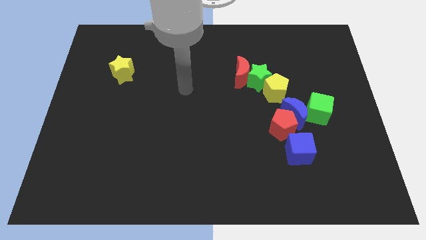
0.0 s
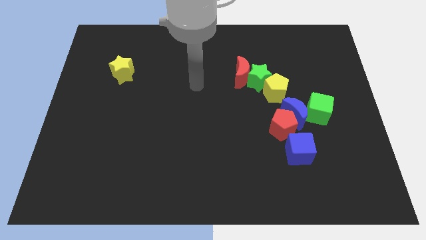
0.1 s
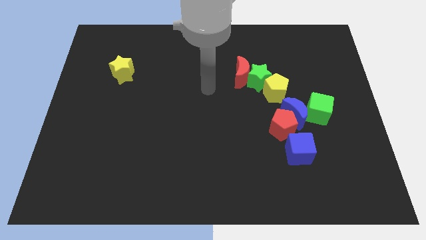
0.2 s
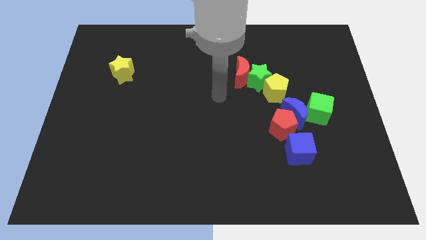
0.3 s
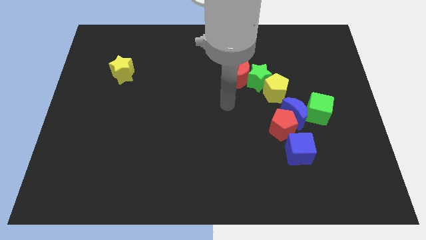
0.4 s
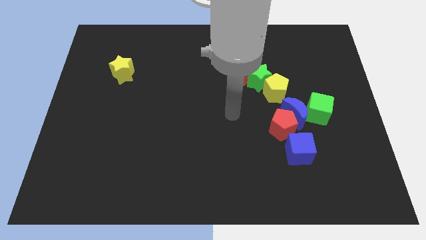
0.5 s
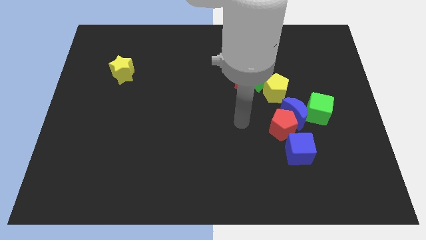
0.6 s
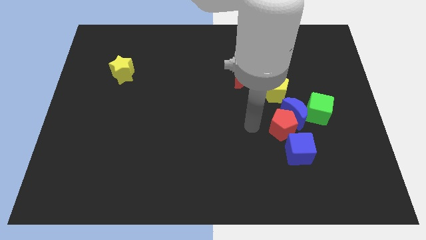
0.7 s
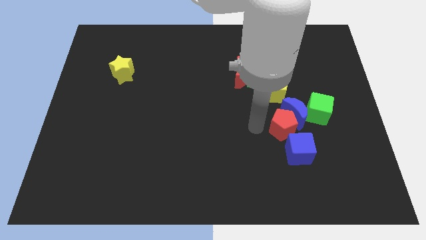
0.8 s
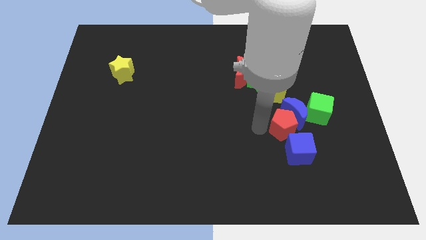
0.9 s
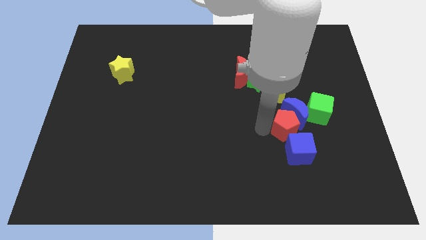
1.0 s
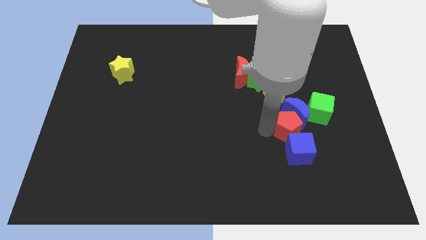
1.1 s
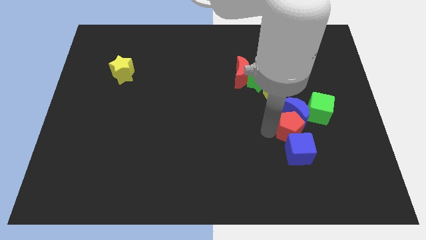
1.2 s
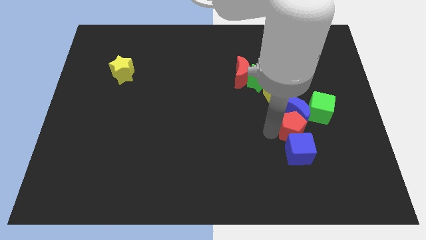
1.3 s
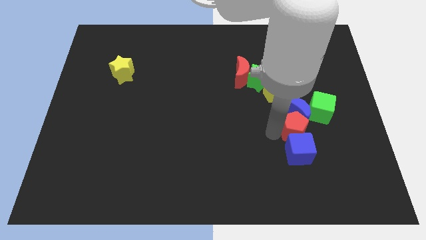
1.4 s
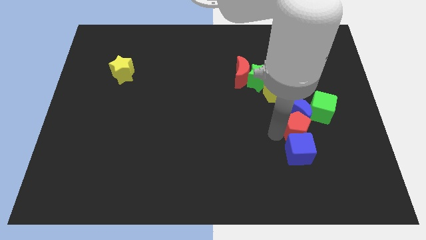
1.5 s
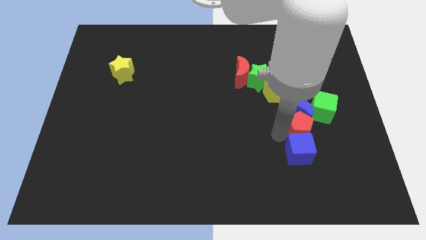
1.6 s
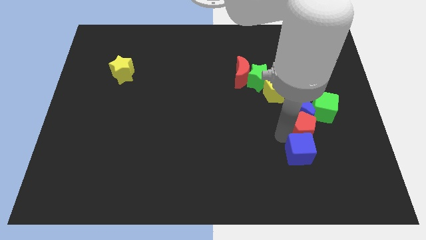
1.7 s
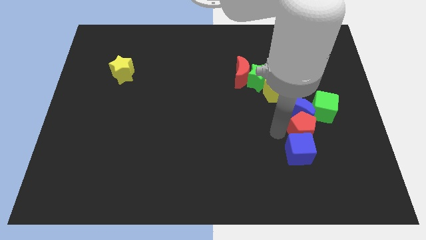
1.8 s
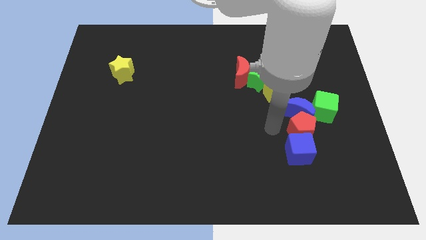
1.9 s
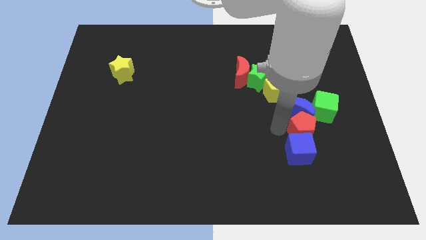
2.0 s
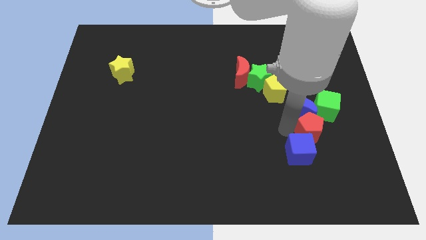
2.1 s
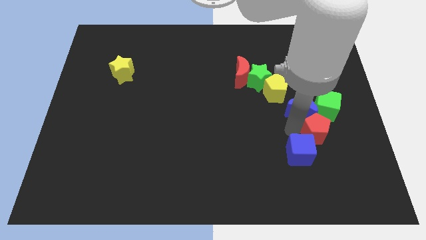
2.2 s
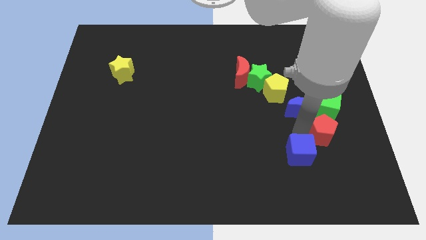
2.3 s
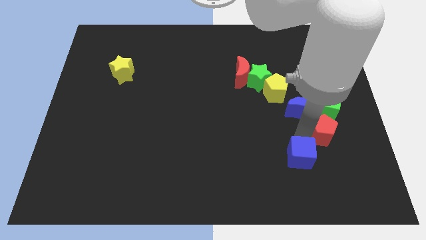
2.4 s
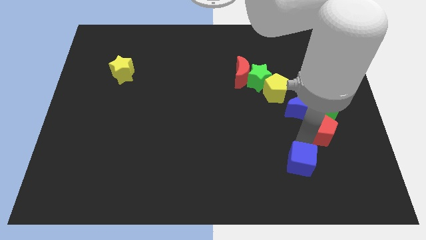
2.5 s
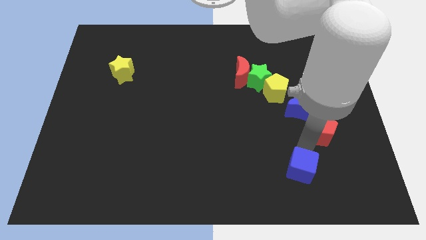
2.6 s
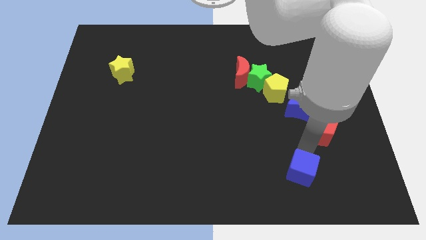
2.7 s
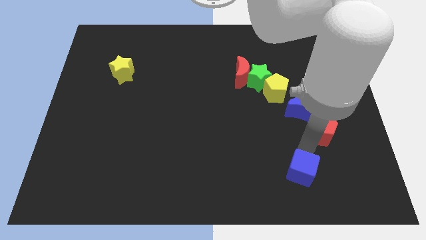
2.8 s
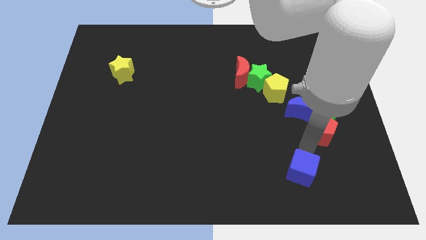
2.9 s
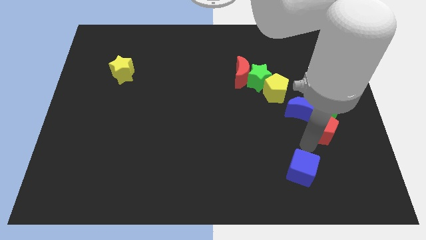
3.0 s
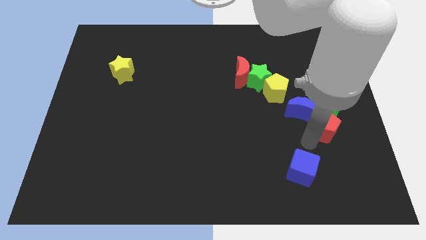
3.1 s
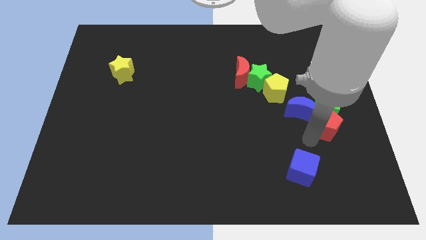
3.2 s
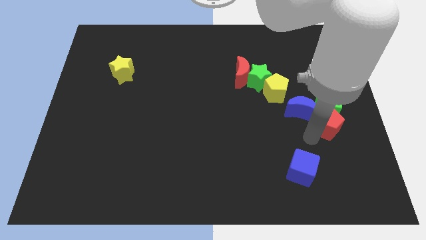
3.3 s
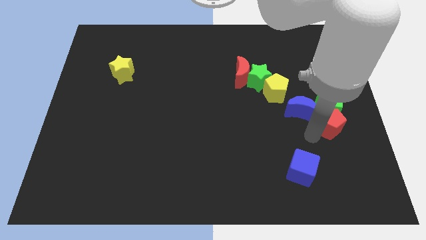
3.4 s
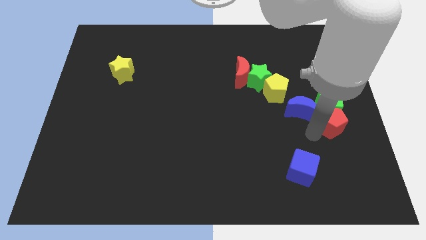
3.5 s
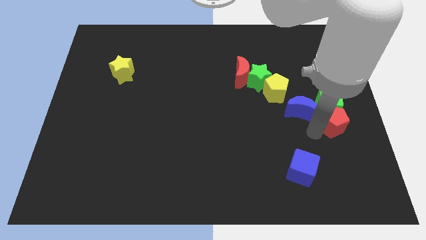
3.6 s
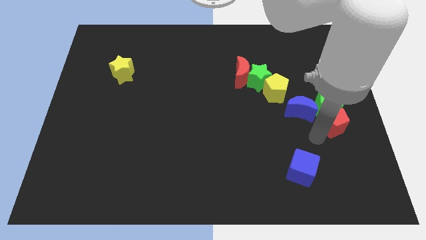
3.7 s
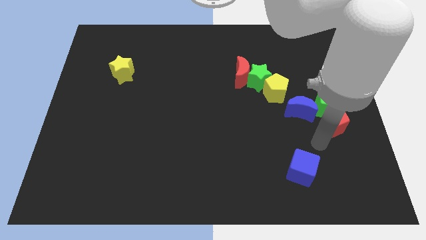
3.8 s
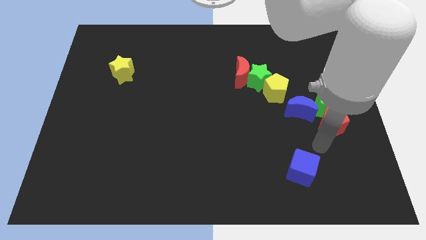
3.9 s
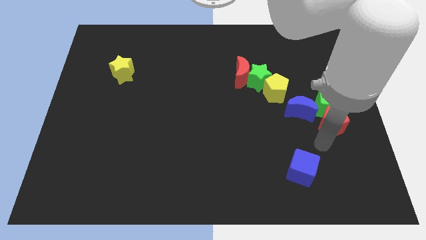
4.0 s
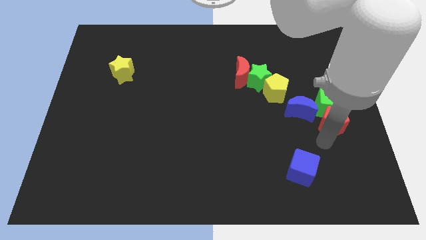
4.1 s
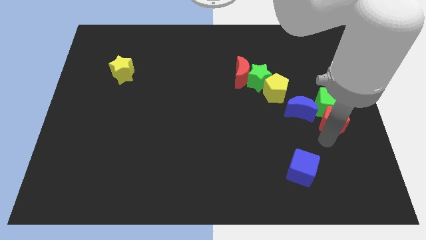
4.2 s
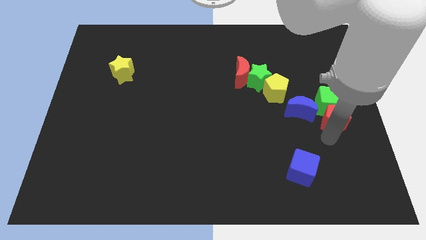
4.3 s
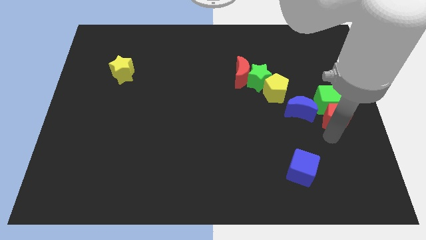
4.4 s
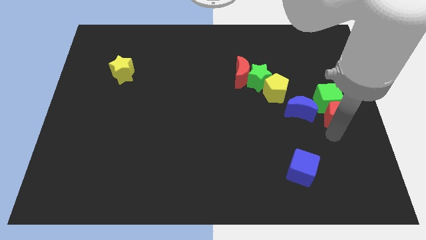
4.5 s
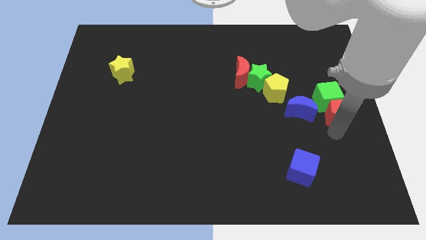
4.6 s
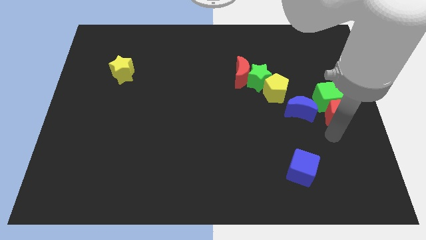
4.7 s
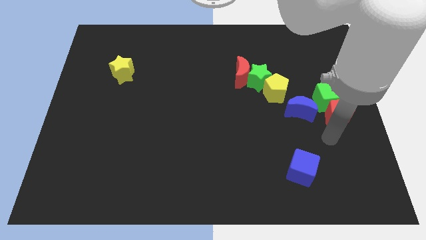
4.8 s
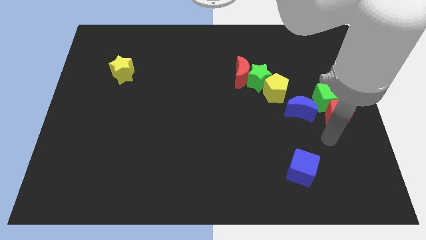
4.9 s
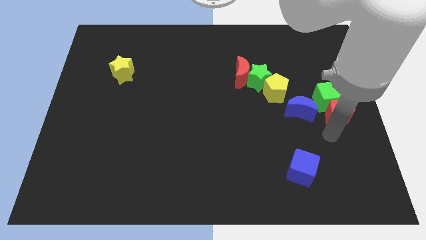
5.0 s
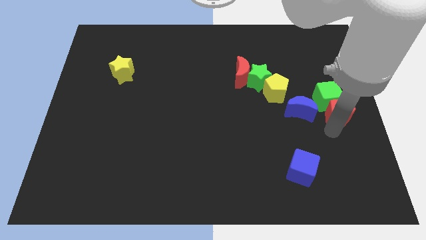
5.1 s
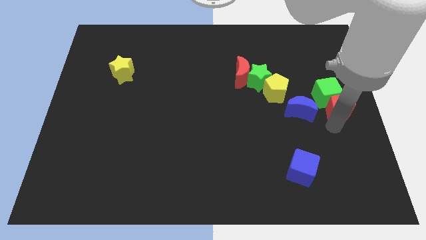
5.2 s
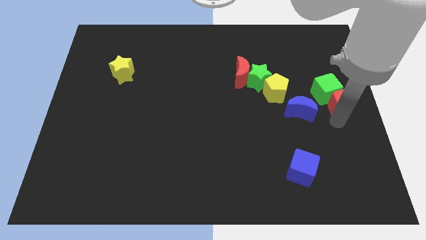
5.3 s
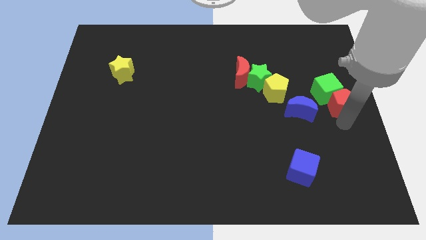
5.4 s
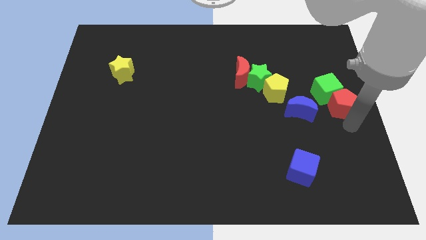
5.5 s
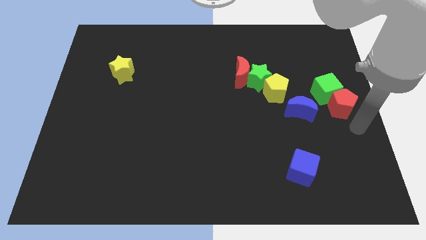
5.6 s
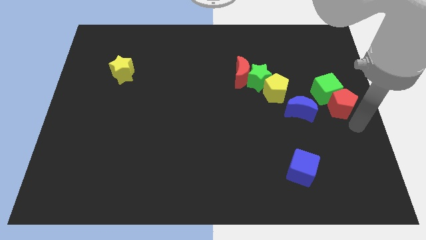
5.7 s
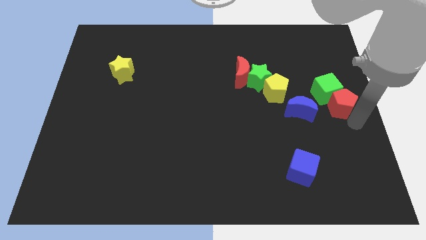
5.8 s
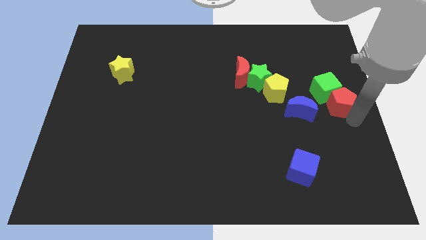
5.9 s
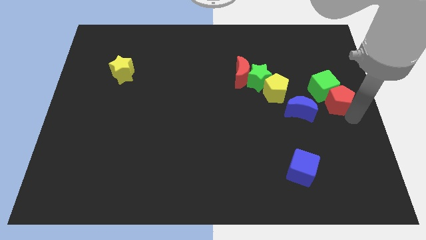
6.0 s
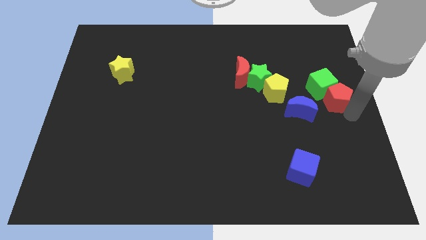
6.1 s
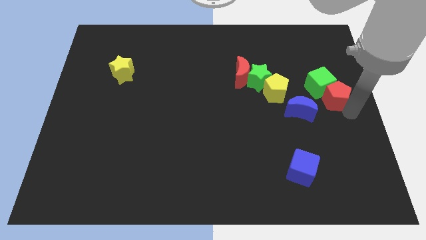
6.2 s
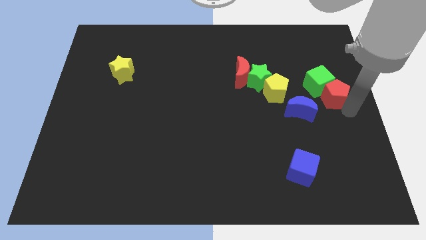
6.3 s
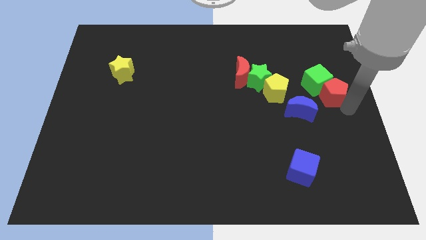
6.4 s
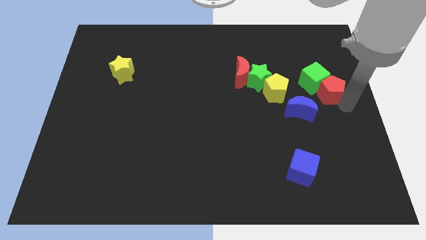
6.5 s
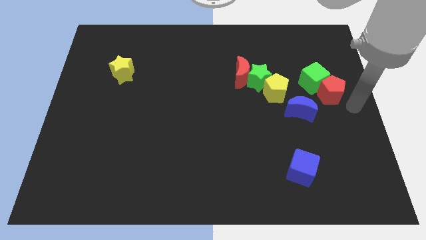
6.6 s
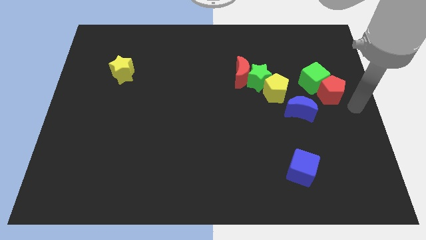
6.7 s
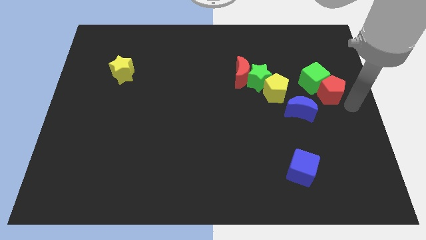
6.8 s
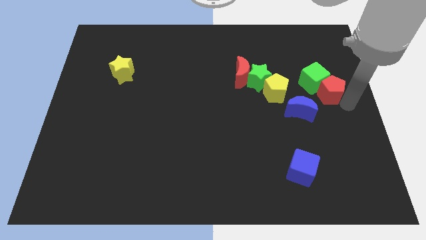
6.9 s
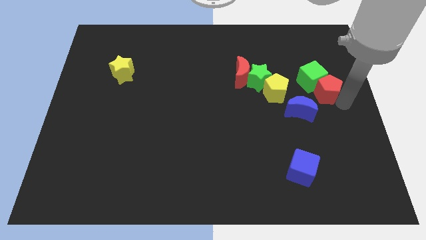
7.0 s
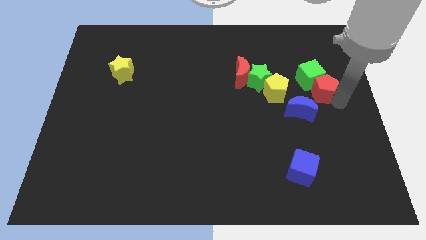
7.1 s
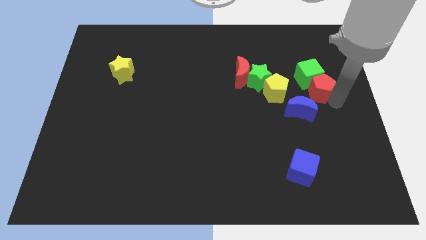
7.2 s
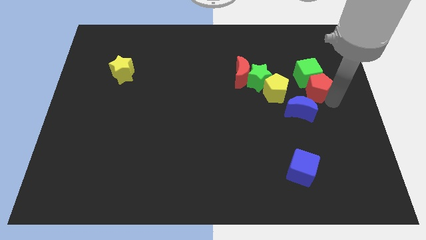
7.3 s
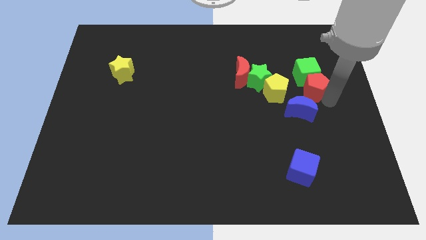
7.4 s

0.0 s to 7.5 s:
move the red pentagon up somewhat

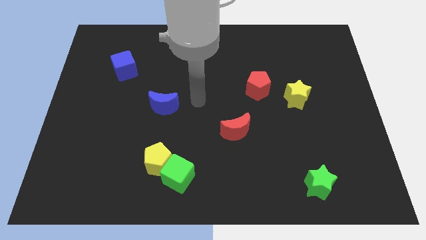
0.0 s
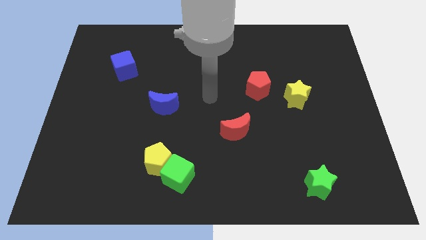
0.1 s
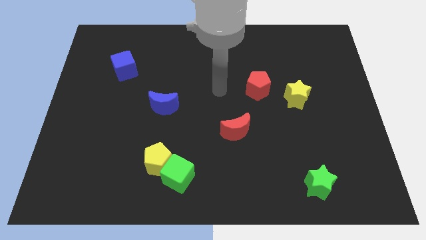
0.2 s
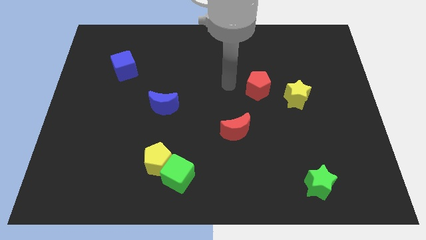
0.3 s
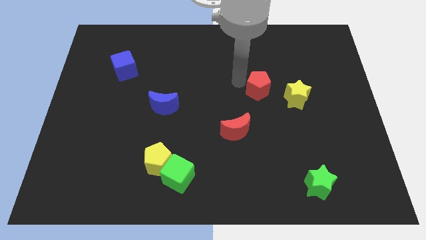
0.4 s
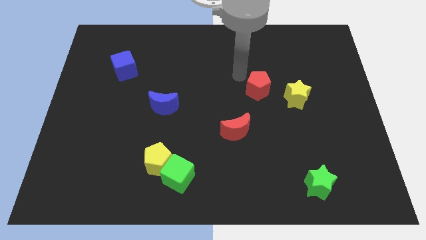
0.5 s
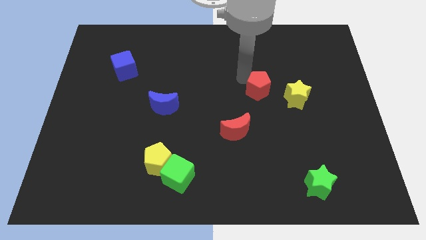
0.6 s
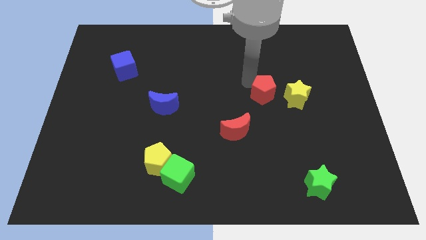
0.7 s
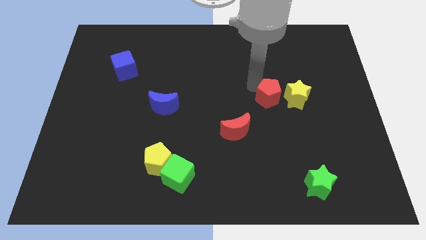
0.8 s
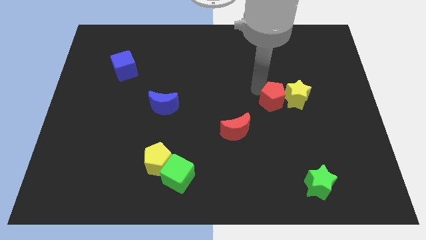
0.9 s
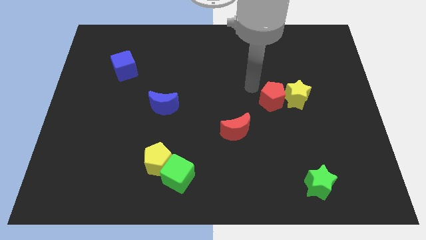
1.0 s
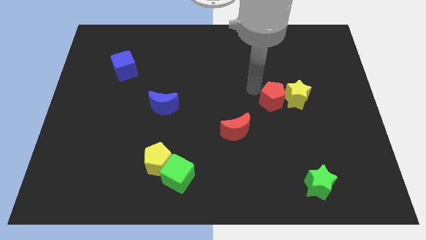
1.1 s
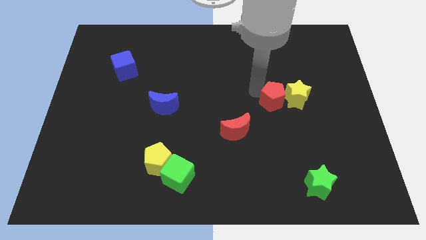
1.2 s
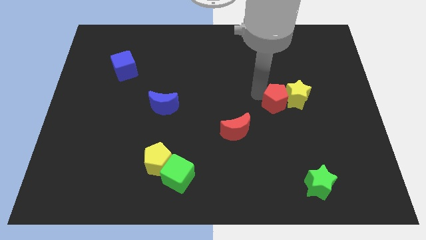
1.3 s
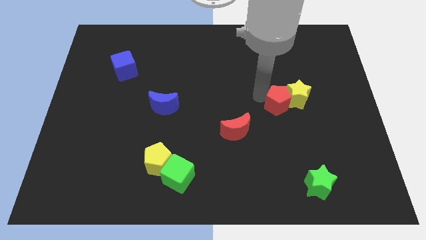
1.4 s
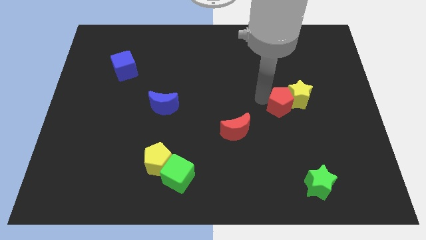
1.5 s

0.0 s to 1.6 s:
slightly move the red pentagon diagonally downwards and right
